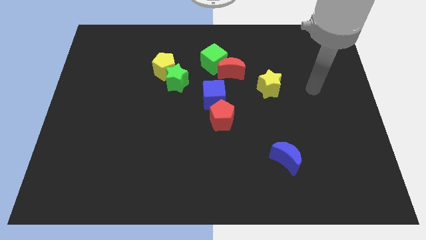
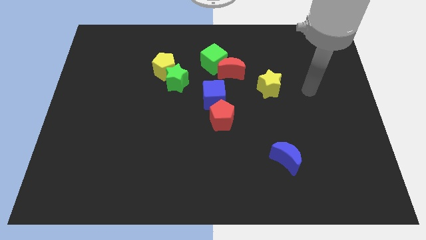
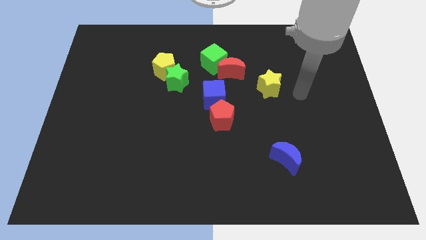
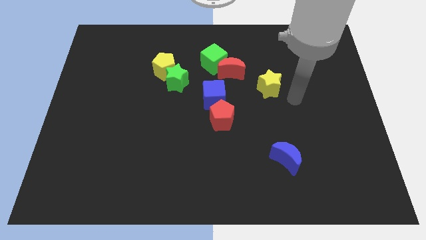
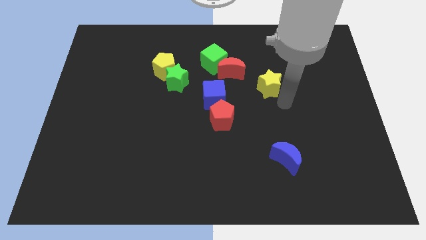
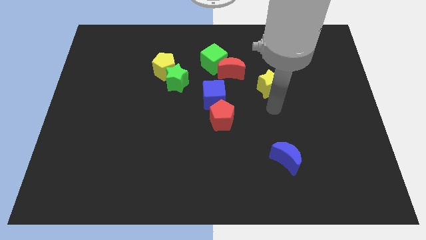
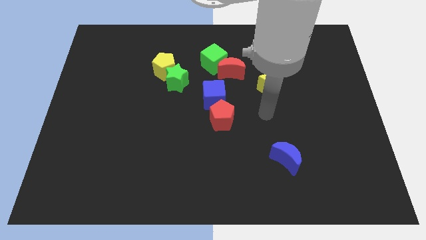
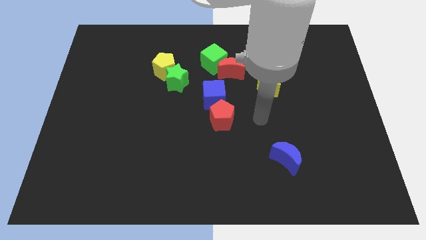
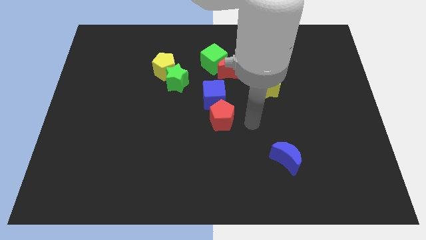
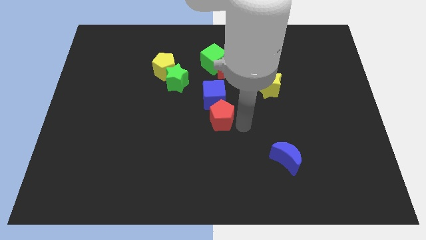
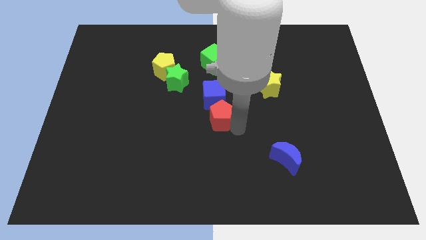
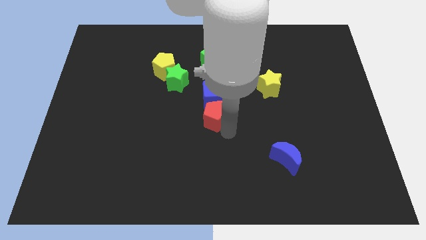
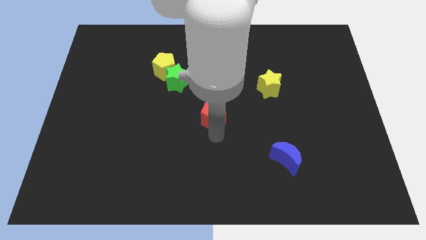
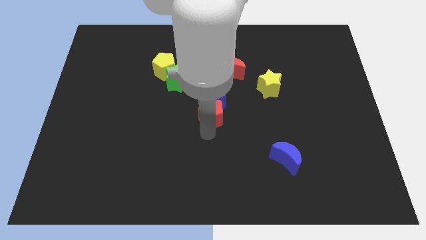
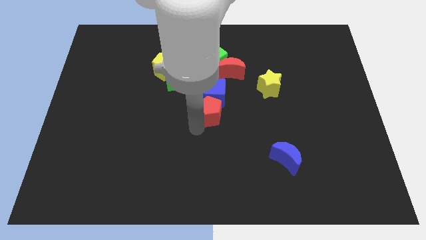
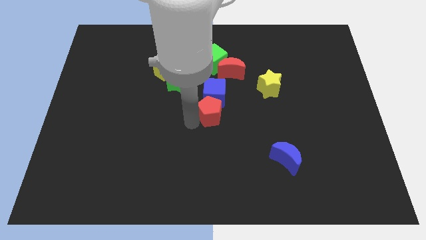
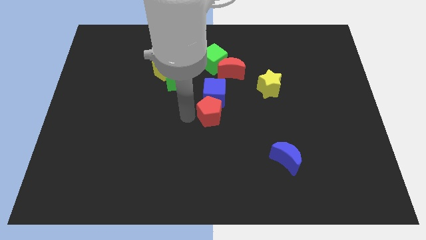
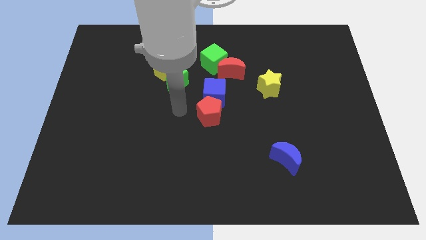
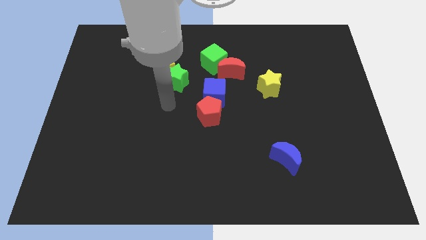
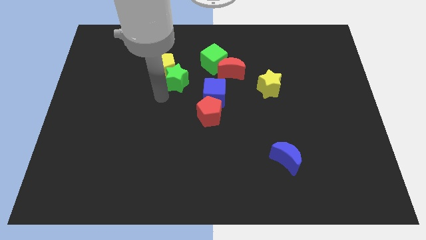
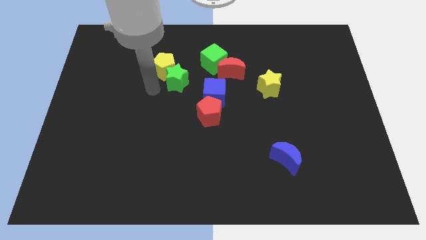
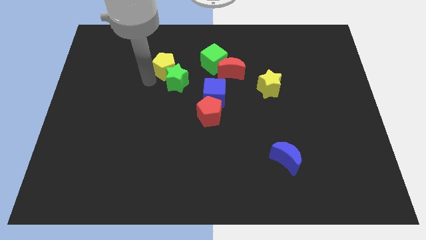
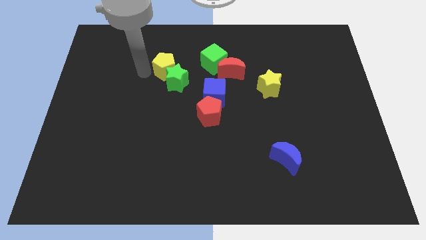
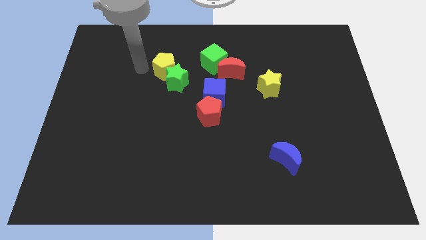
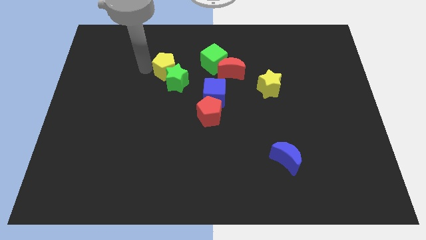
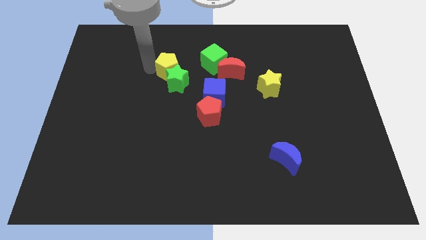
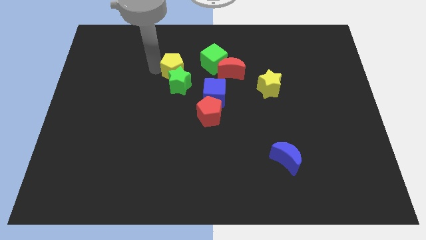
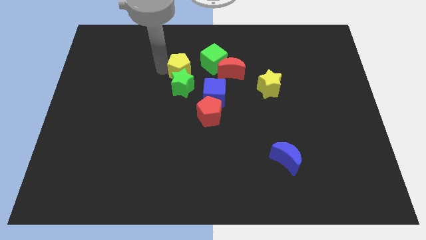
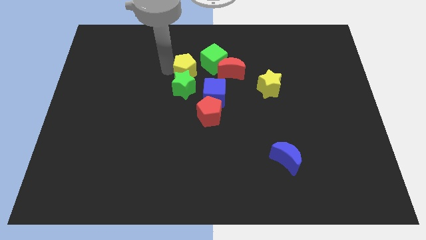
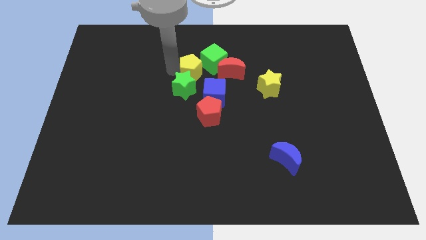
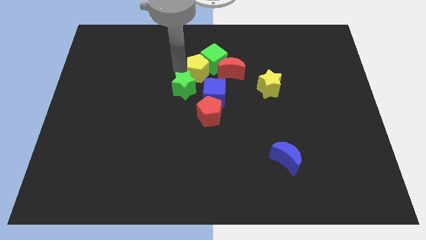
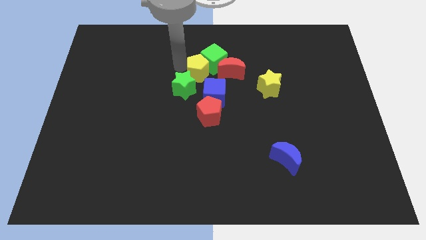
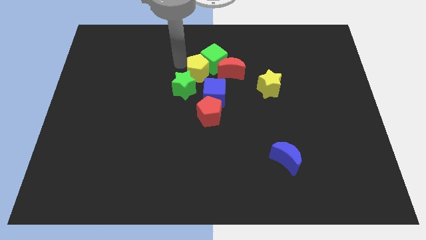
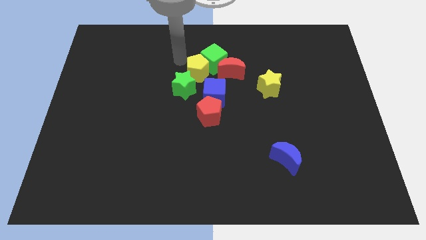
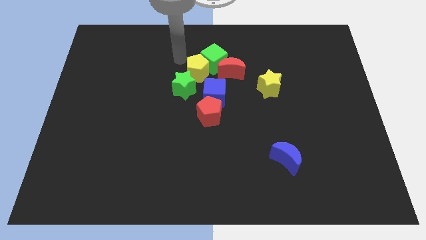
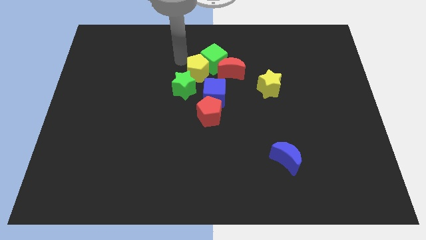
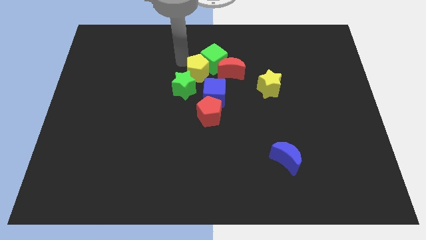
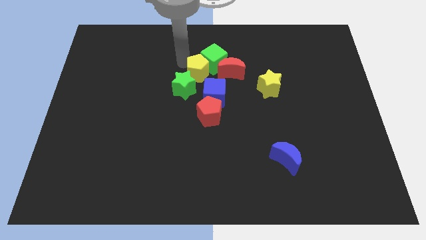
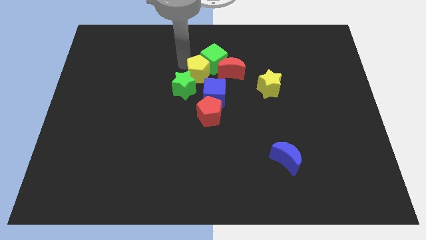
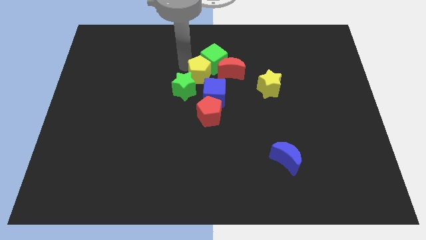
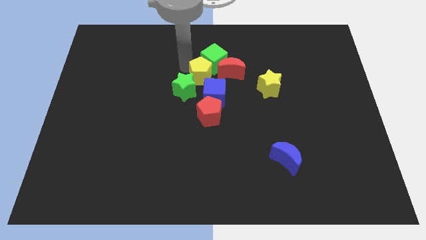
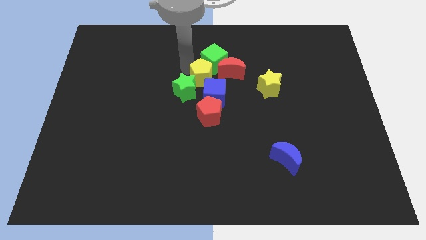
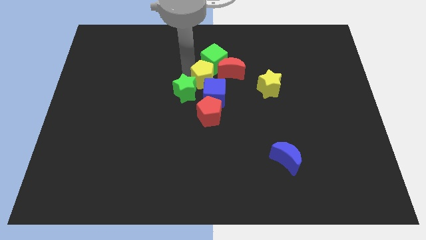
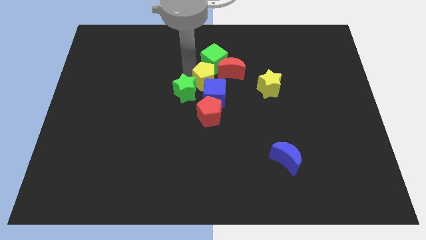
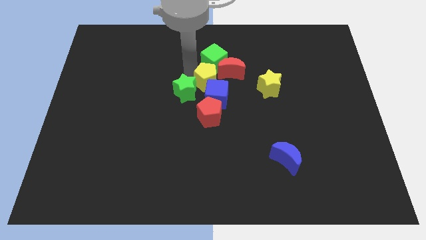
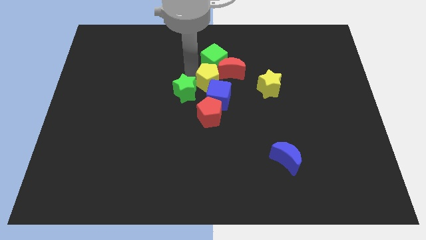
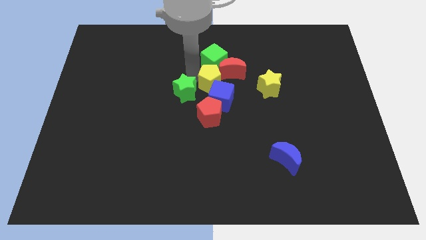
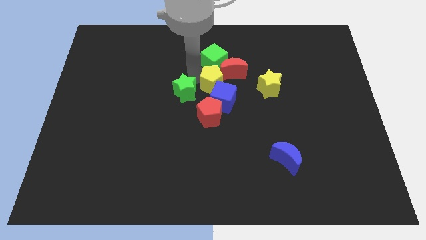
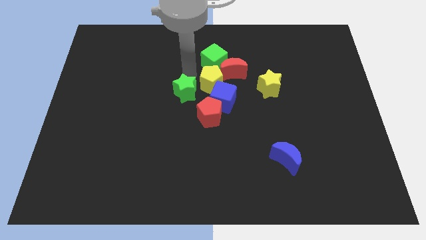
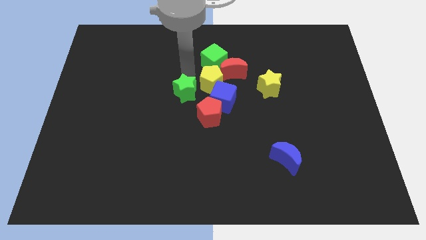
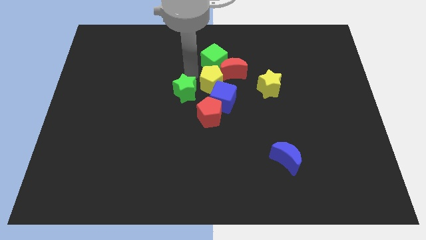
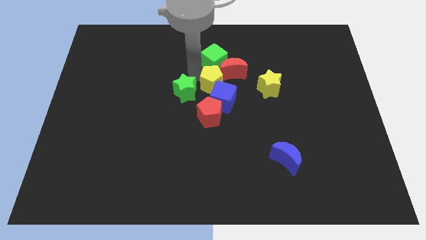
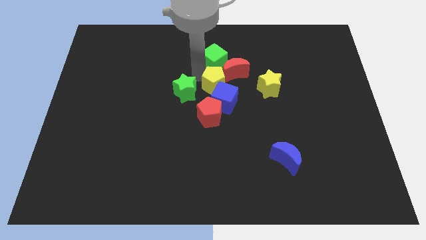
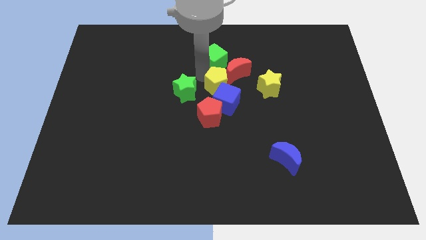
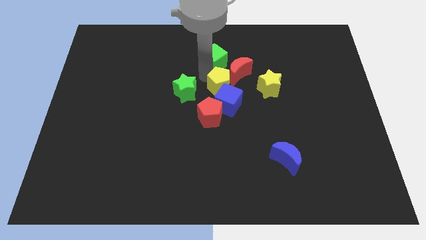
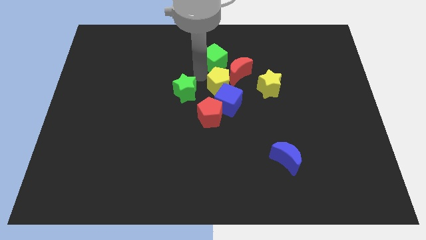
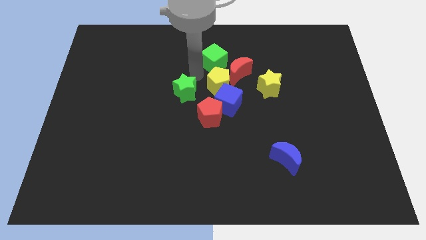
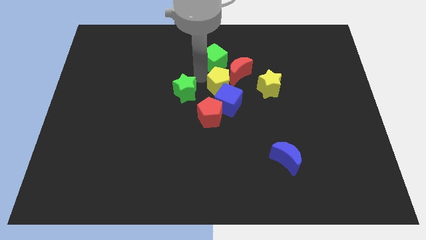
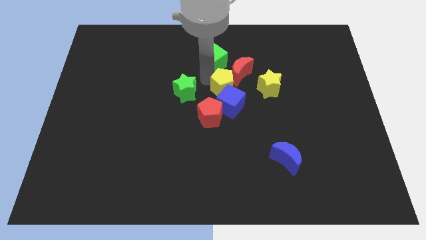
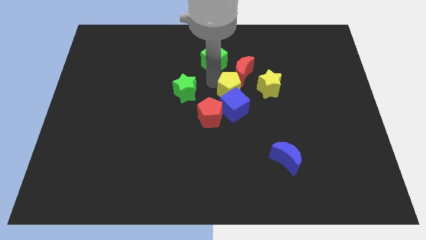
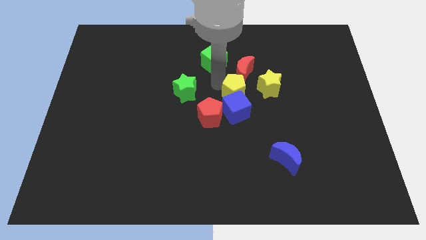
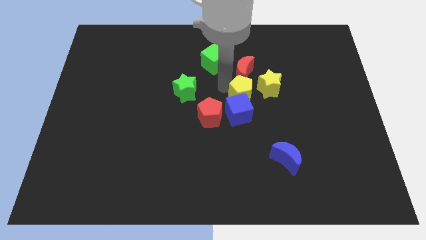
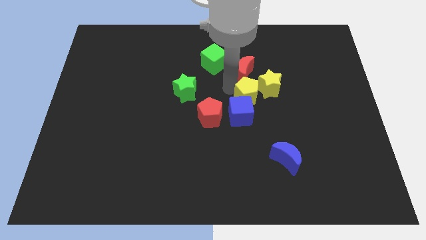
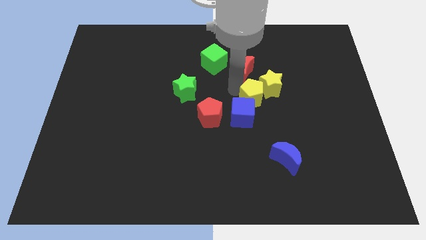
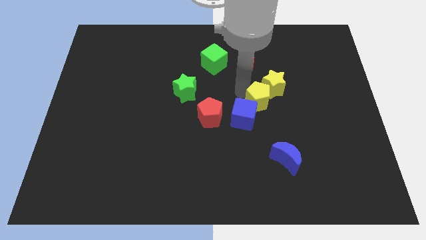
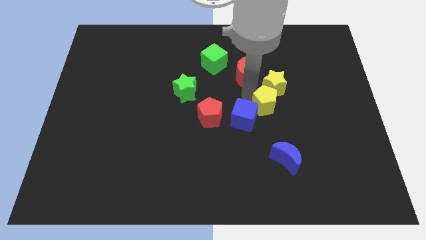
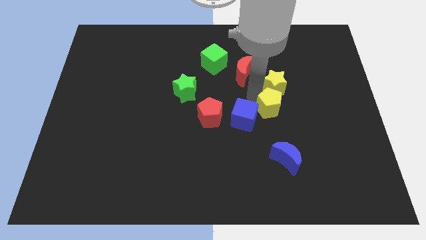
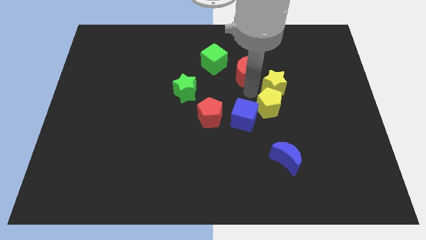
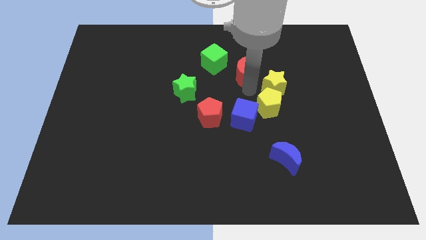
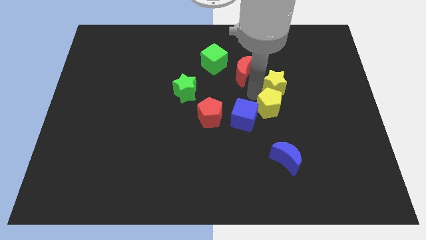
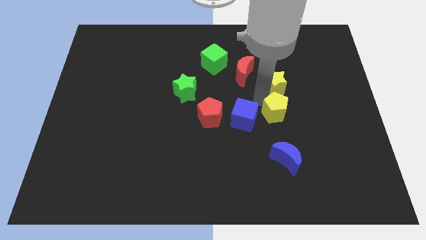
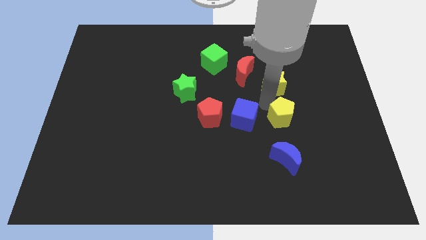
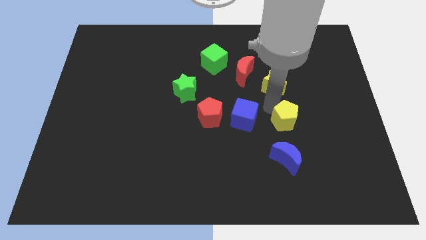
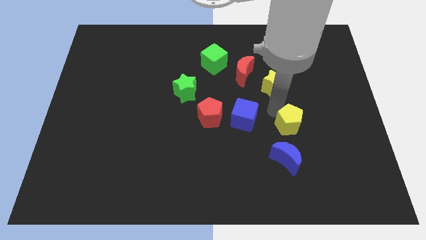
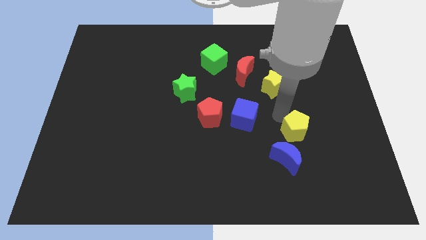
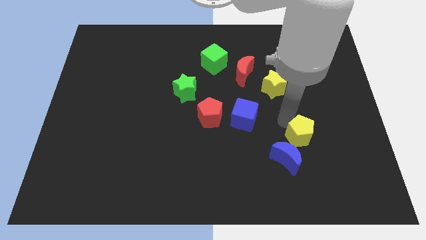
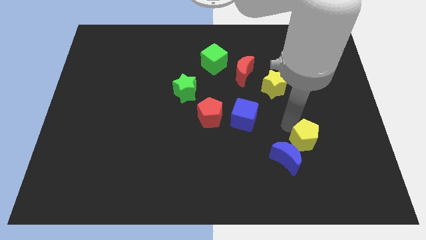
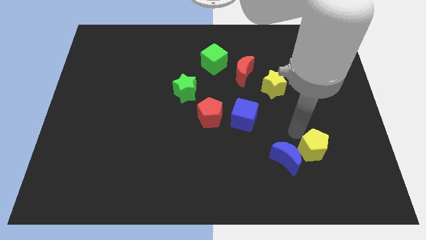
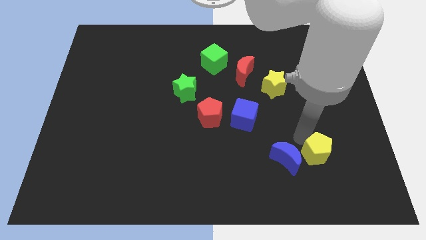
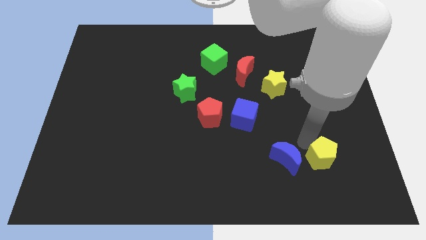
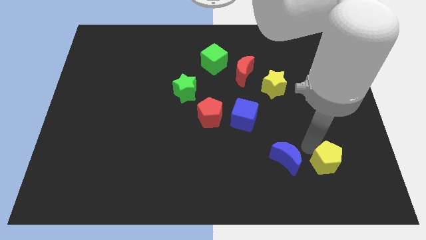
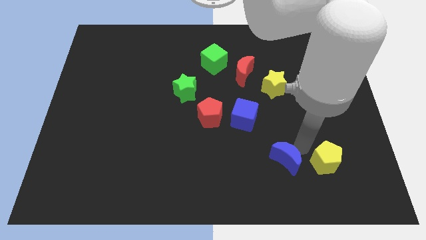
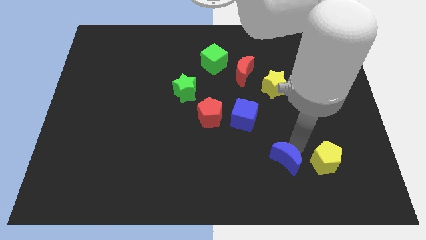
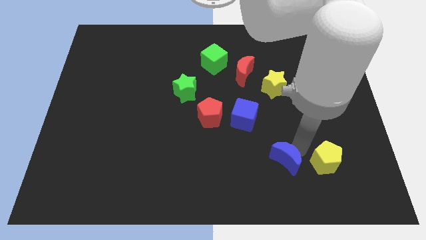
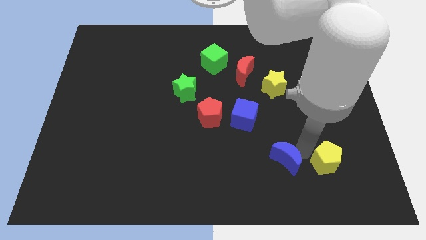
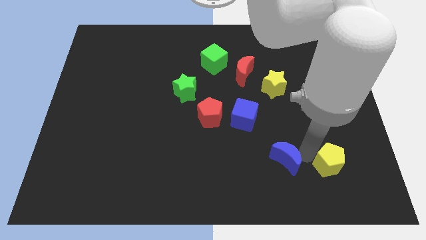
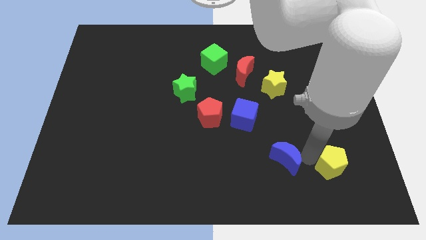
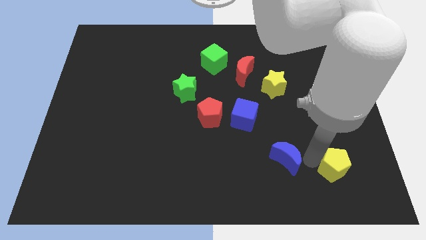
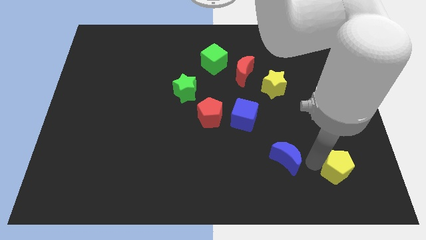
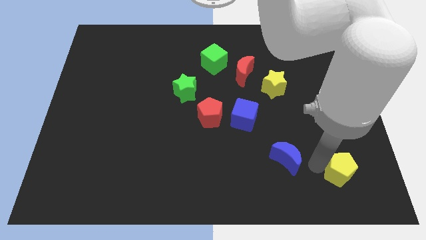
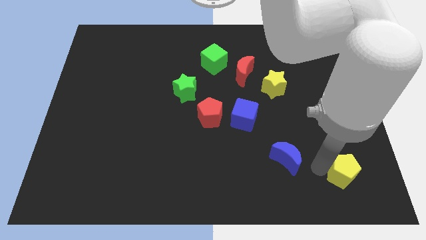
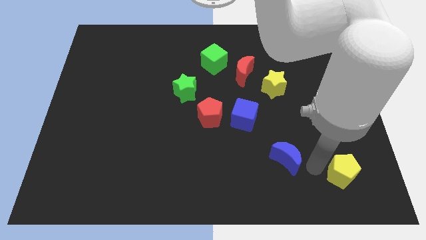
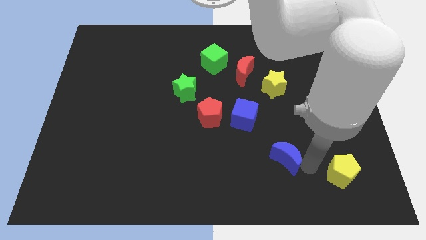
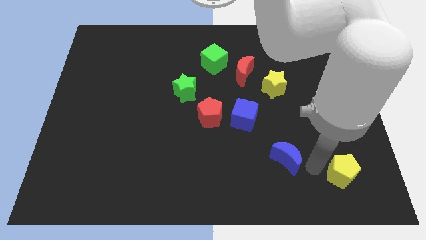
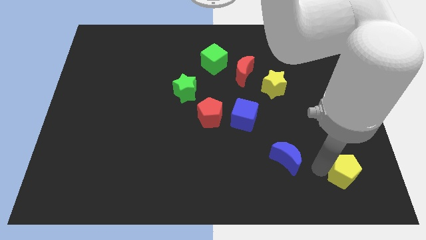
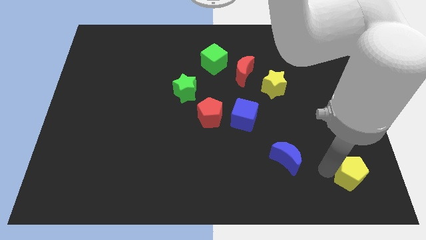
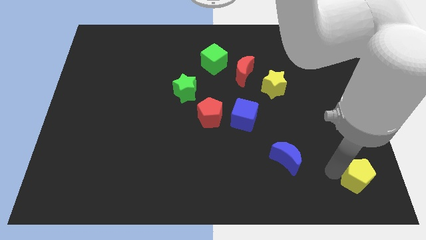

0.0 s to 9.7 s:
slide the yellow pentagon to the bottom right
